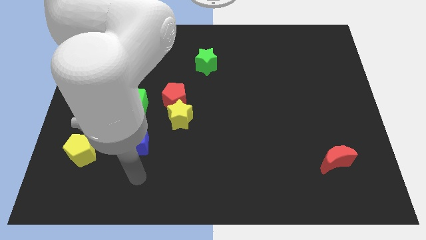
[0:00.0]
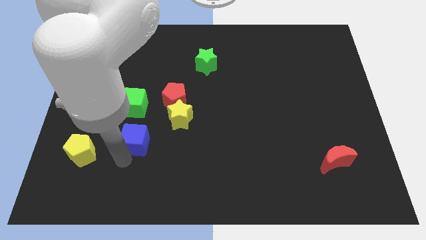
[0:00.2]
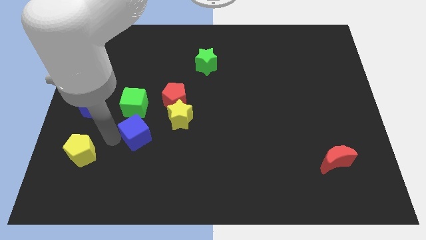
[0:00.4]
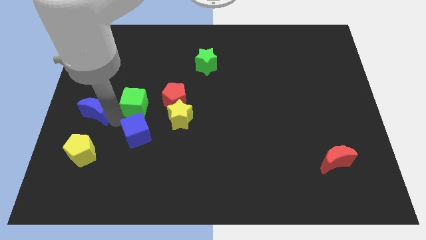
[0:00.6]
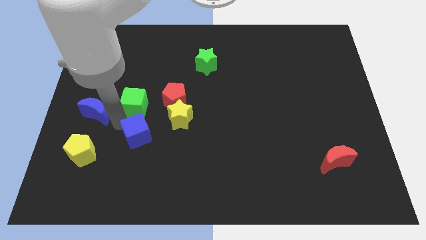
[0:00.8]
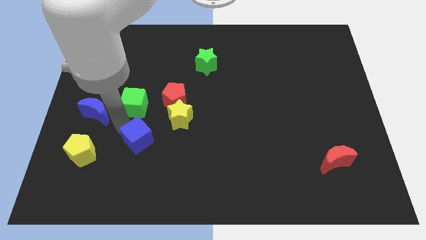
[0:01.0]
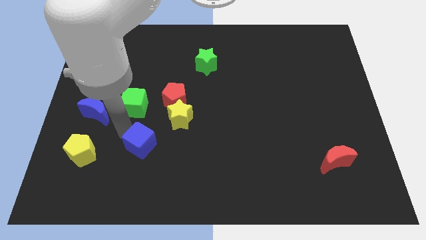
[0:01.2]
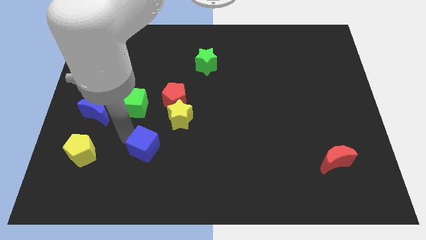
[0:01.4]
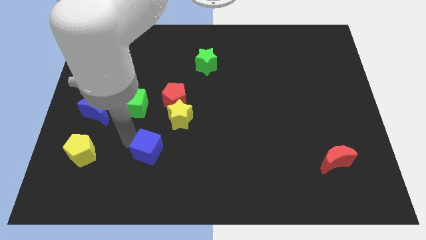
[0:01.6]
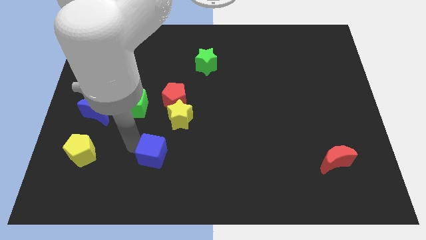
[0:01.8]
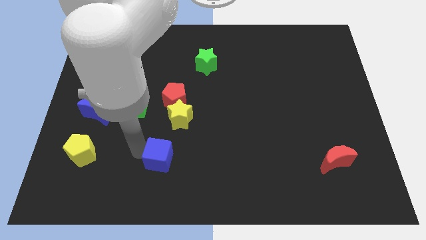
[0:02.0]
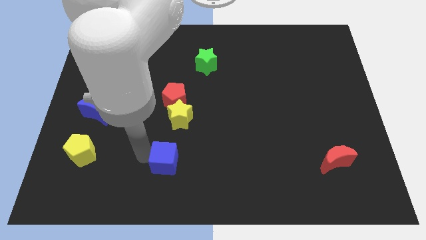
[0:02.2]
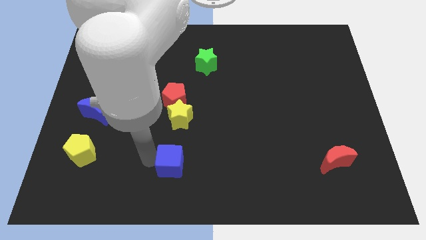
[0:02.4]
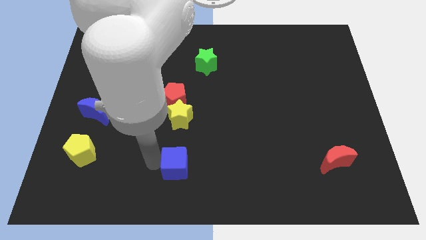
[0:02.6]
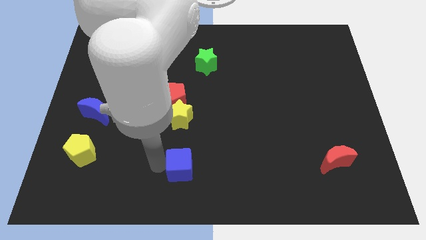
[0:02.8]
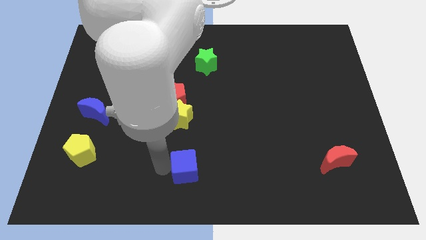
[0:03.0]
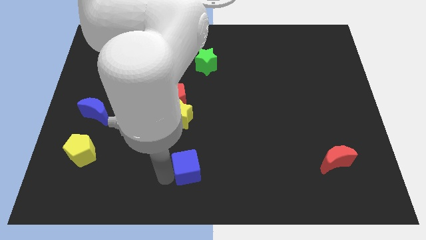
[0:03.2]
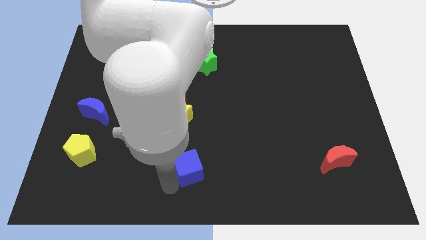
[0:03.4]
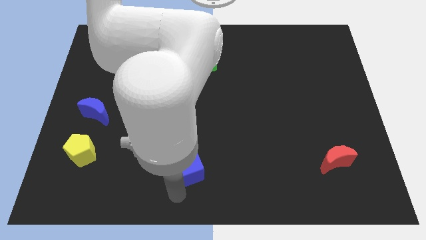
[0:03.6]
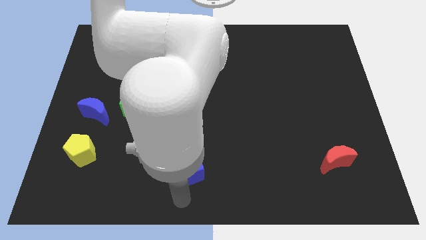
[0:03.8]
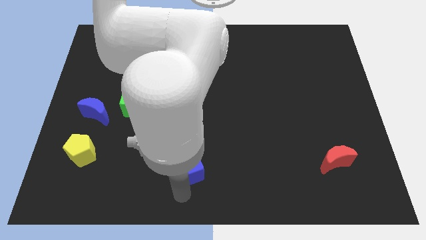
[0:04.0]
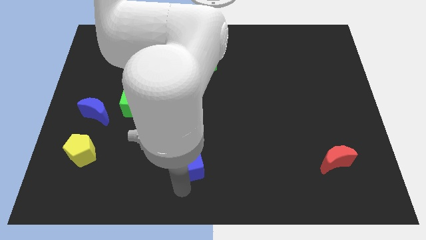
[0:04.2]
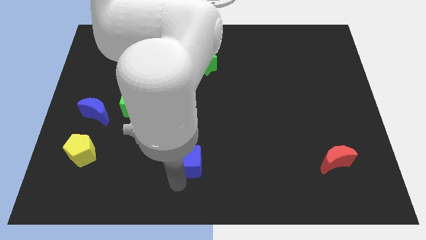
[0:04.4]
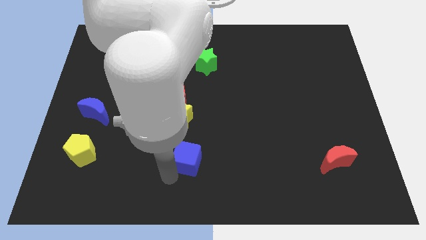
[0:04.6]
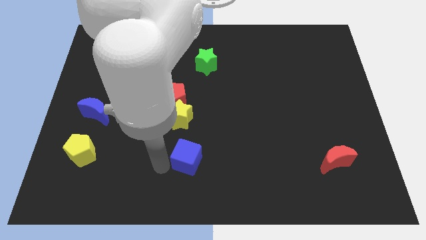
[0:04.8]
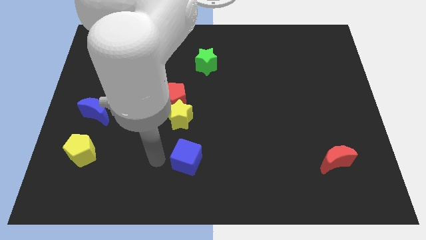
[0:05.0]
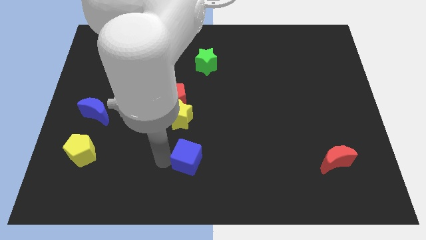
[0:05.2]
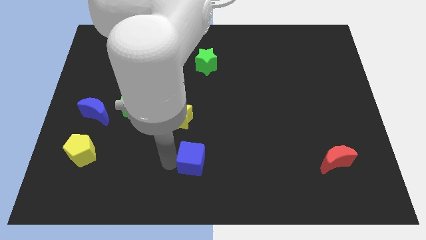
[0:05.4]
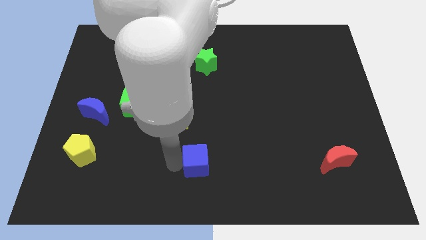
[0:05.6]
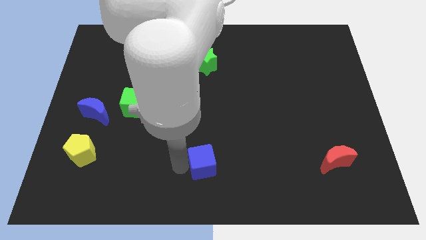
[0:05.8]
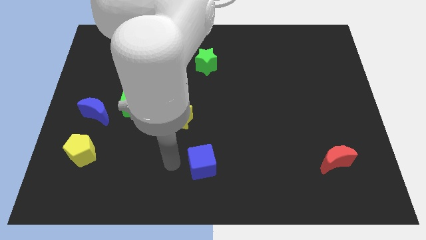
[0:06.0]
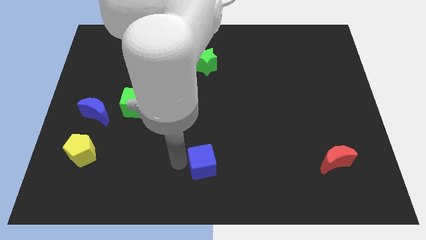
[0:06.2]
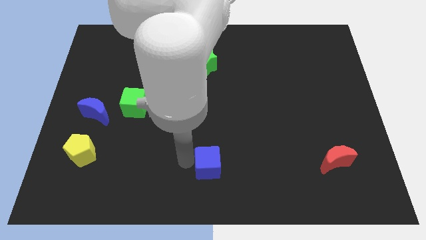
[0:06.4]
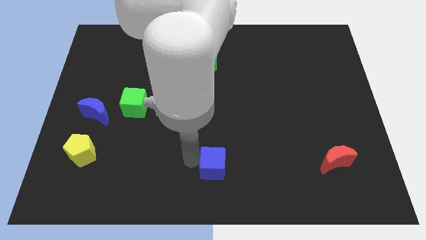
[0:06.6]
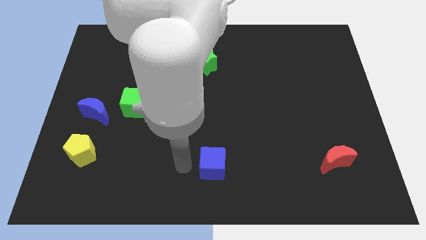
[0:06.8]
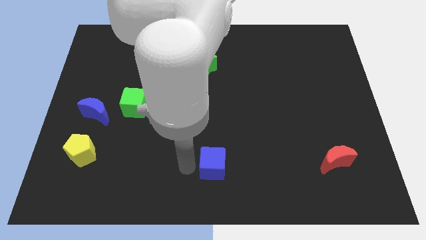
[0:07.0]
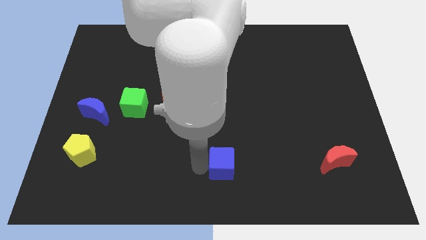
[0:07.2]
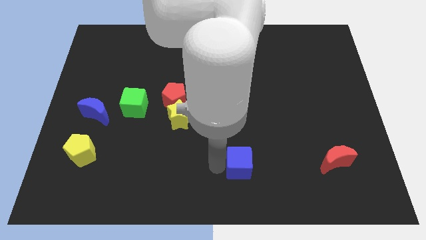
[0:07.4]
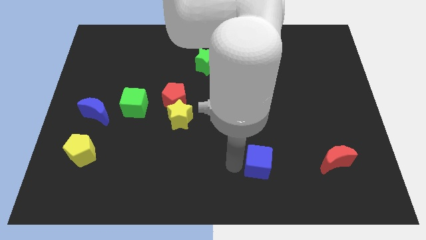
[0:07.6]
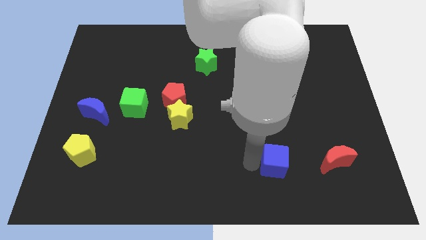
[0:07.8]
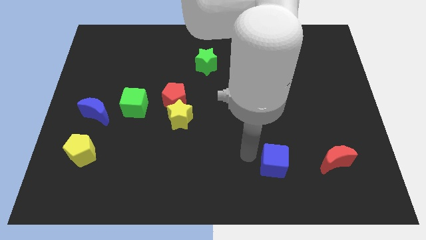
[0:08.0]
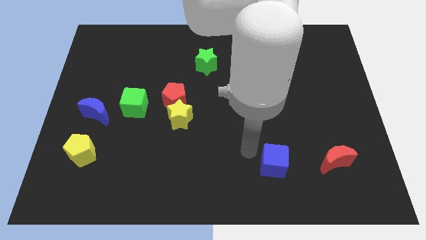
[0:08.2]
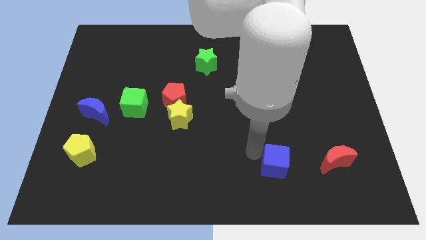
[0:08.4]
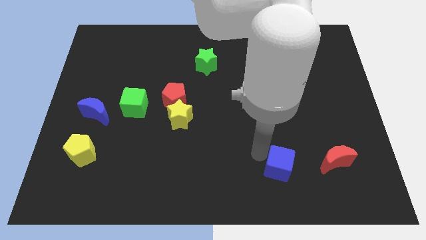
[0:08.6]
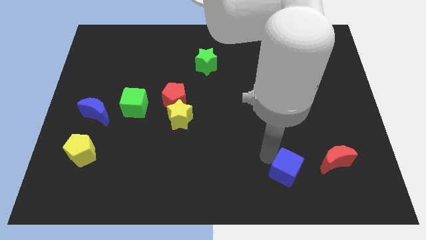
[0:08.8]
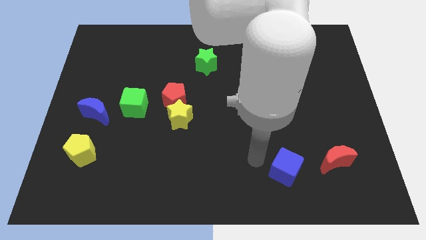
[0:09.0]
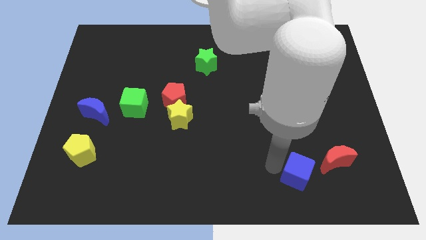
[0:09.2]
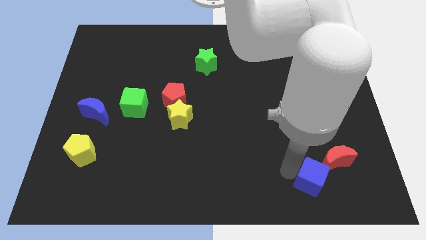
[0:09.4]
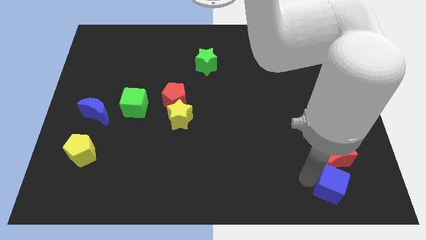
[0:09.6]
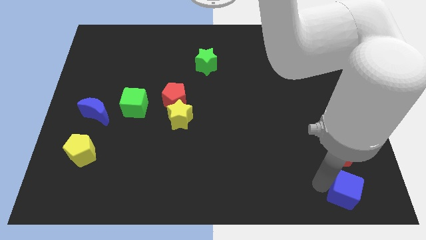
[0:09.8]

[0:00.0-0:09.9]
slide the blue cube to the lower right corner

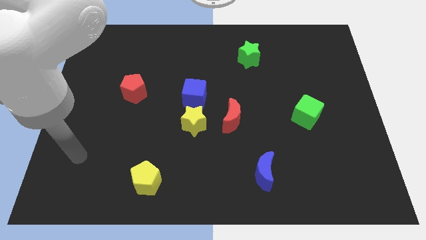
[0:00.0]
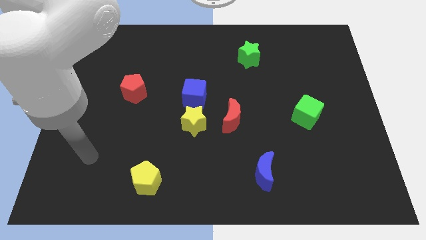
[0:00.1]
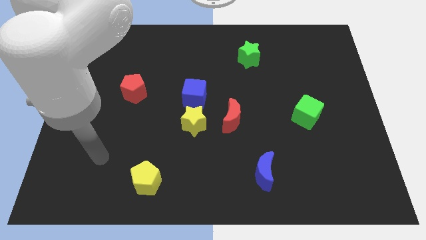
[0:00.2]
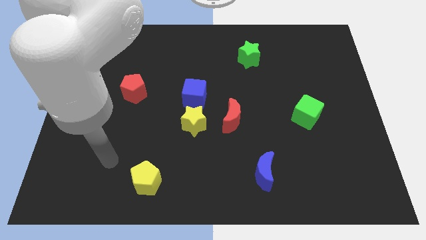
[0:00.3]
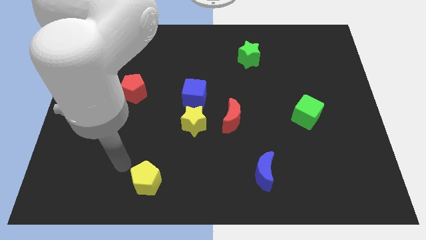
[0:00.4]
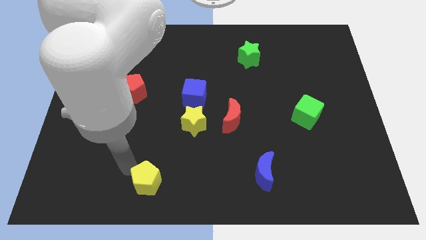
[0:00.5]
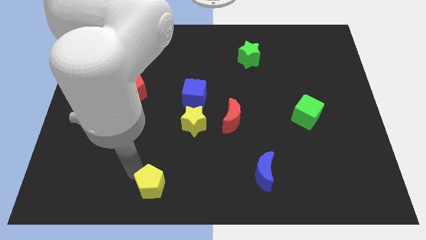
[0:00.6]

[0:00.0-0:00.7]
push the yellow pentagon to the bottom side
